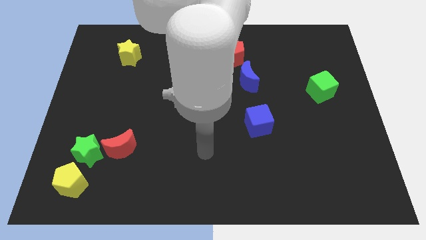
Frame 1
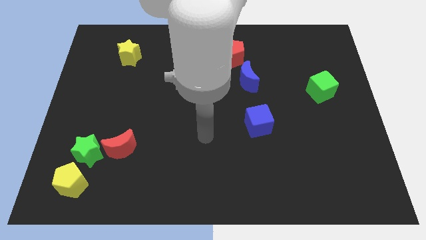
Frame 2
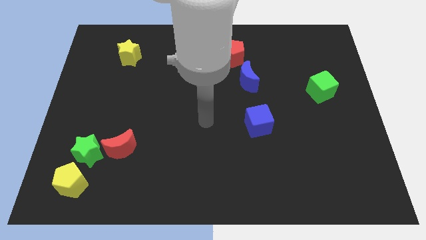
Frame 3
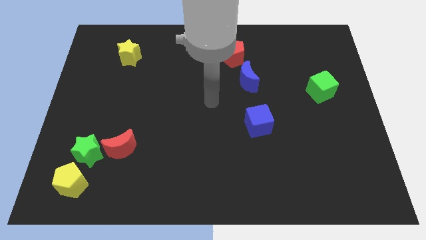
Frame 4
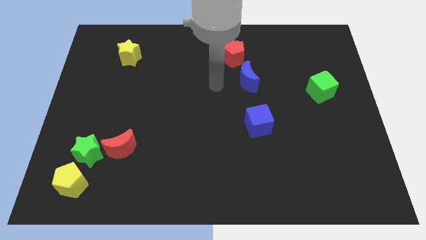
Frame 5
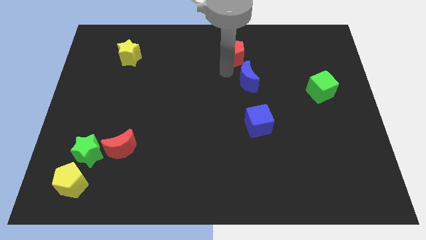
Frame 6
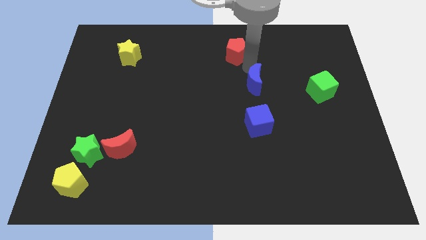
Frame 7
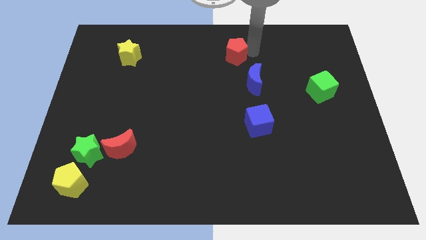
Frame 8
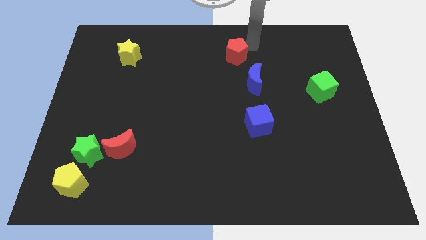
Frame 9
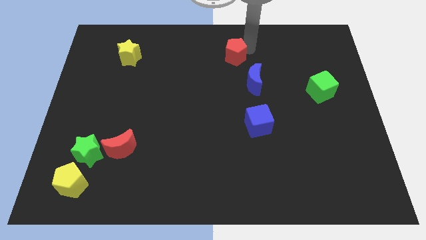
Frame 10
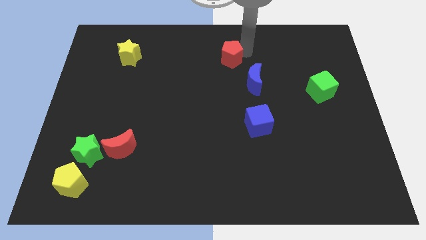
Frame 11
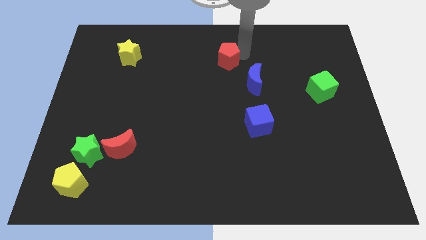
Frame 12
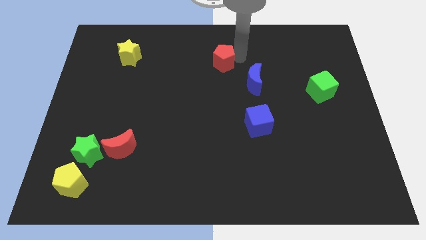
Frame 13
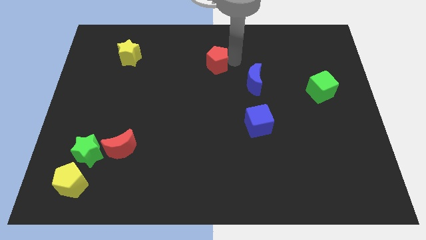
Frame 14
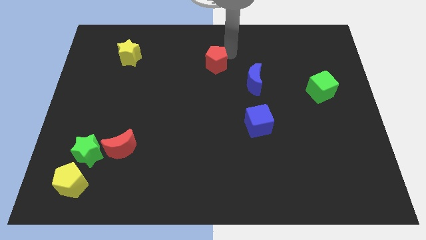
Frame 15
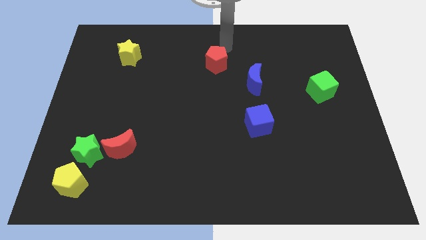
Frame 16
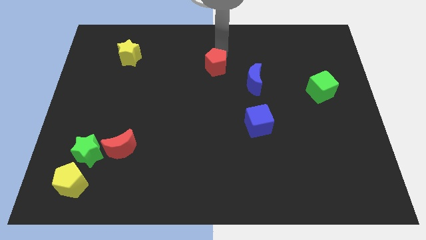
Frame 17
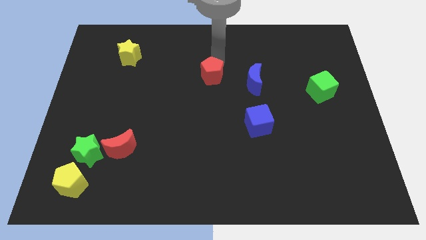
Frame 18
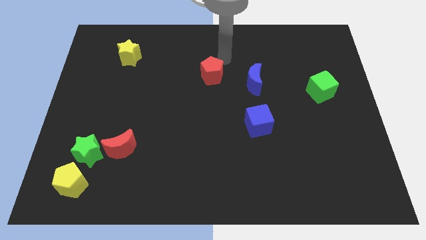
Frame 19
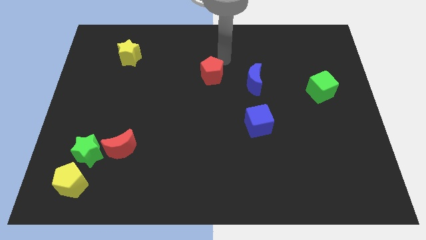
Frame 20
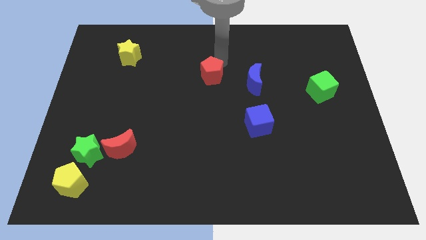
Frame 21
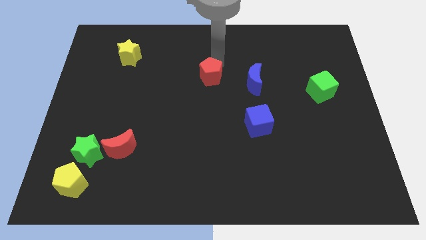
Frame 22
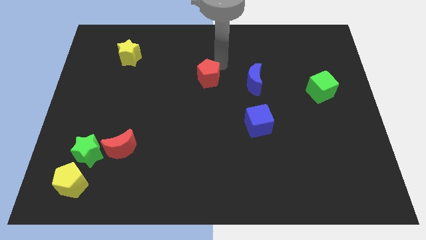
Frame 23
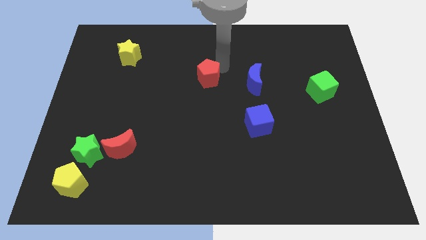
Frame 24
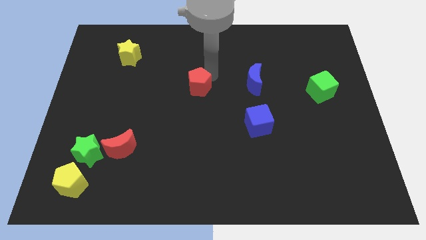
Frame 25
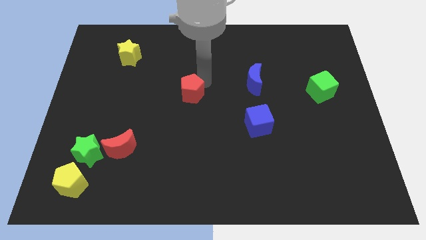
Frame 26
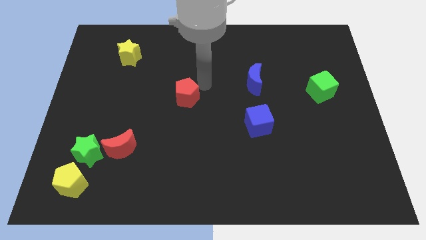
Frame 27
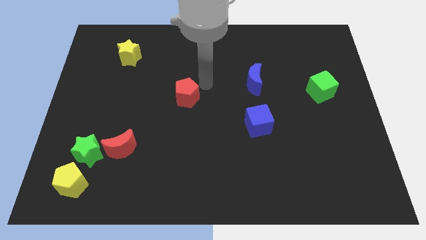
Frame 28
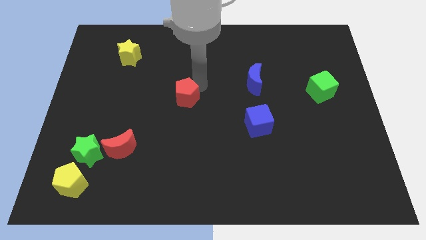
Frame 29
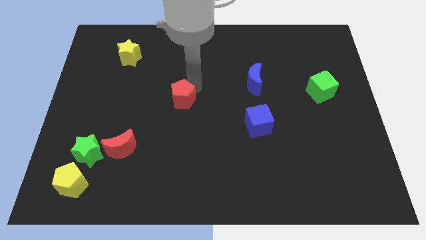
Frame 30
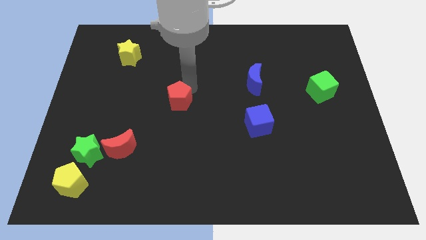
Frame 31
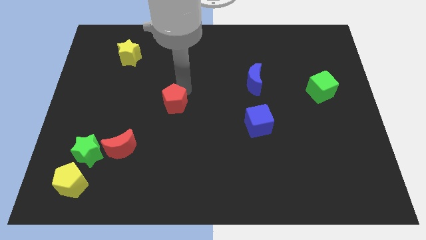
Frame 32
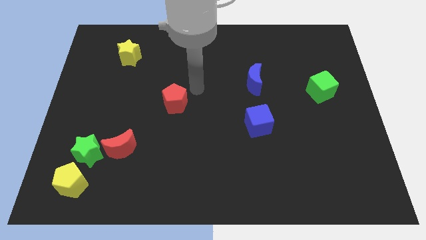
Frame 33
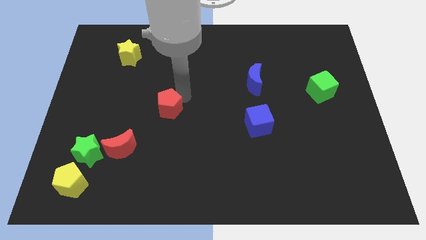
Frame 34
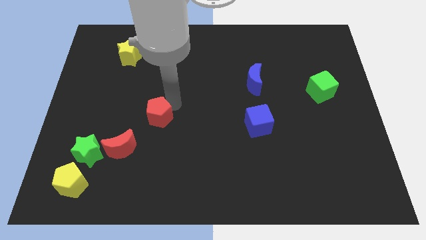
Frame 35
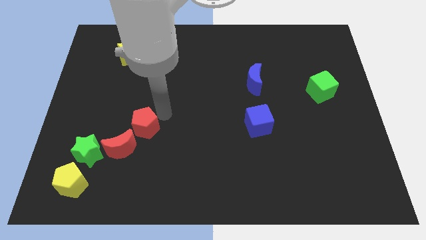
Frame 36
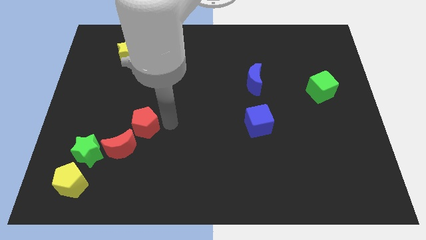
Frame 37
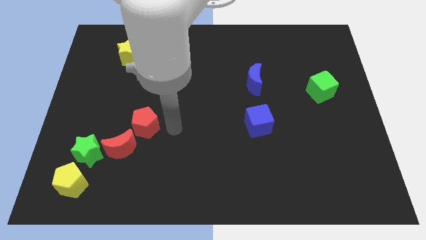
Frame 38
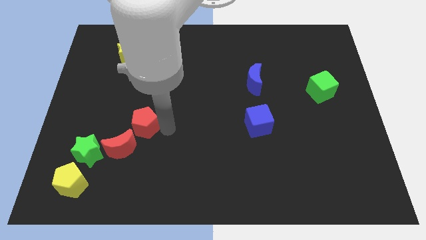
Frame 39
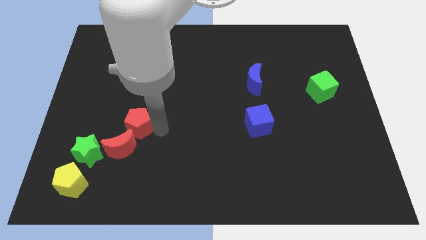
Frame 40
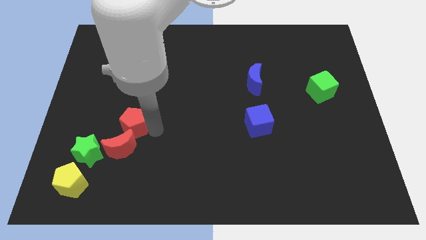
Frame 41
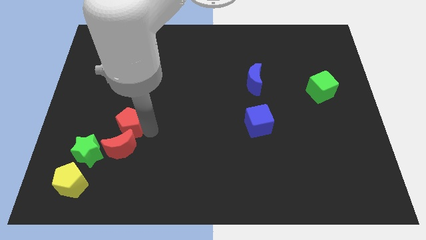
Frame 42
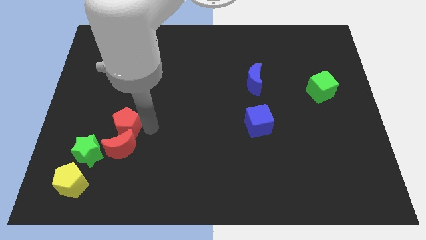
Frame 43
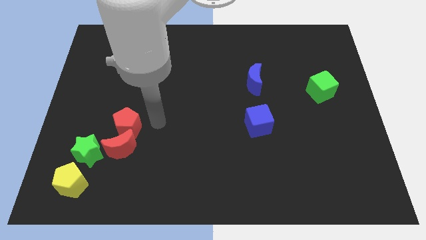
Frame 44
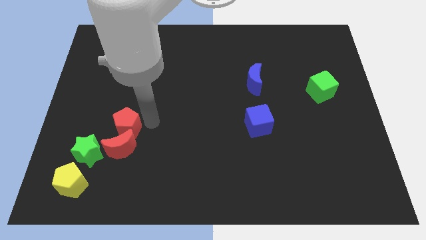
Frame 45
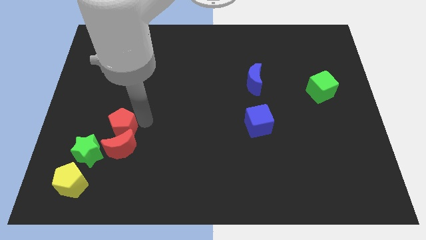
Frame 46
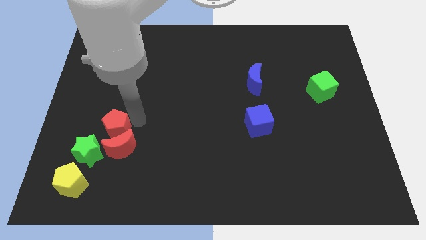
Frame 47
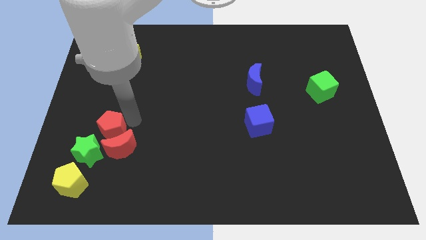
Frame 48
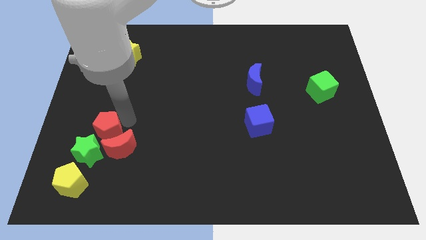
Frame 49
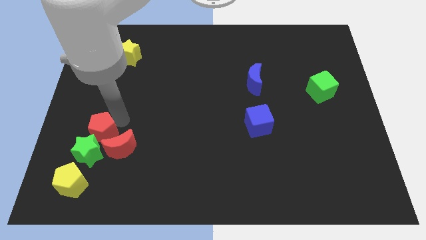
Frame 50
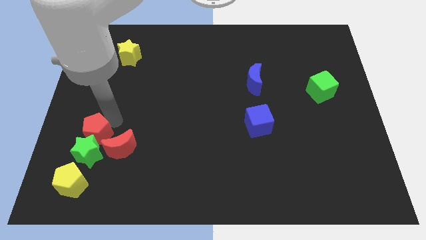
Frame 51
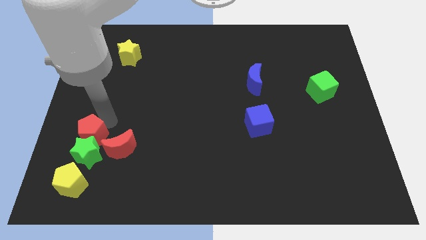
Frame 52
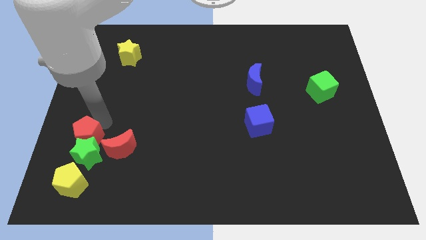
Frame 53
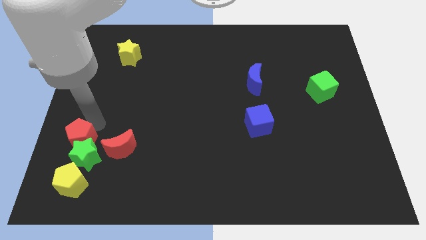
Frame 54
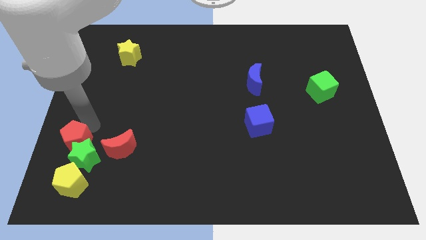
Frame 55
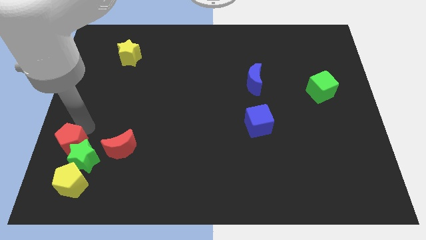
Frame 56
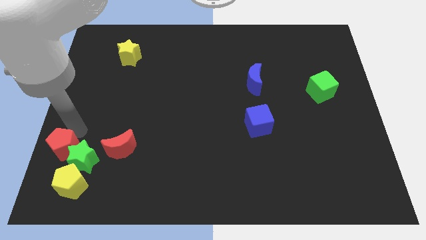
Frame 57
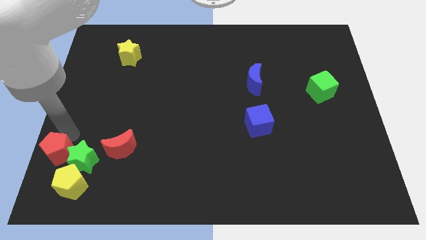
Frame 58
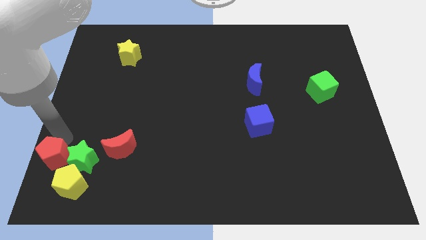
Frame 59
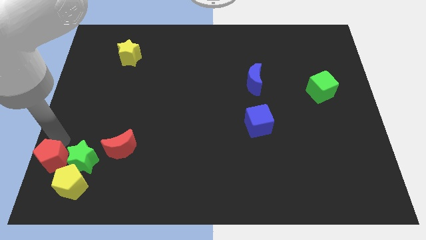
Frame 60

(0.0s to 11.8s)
move the red pentagon to the bottom left

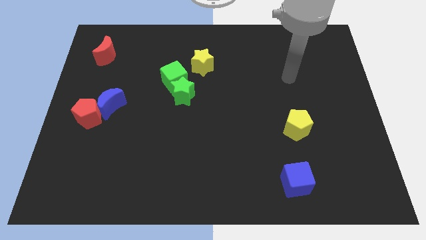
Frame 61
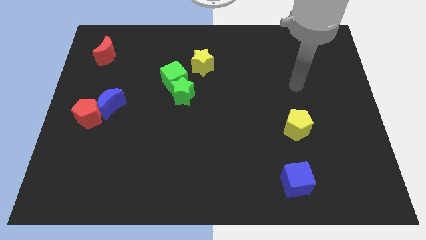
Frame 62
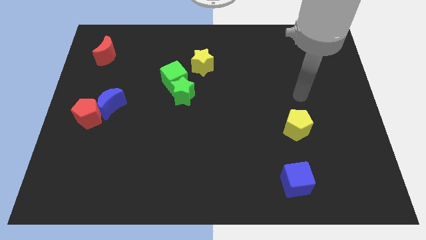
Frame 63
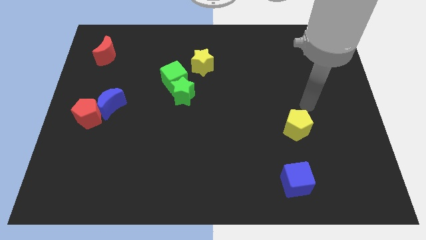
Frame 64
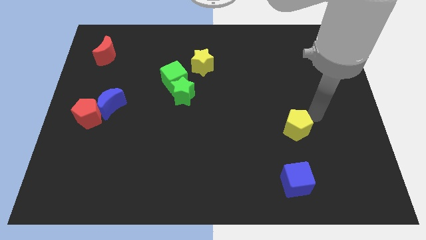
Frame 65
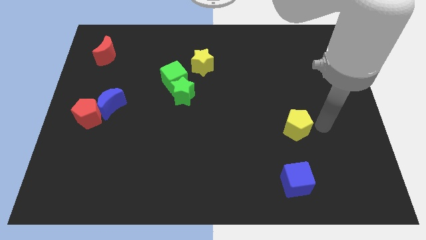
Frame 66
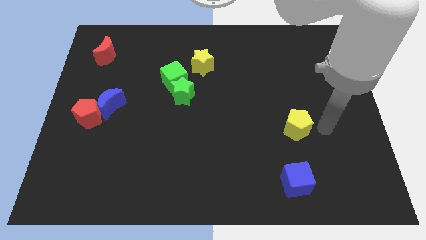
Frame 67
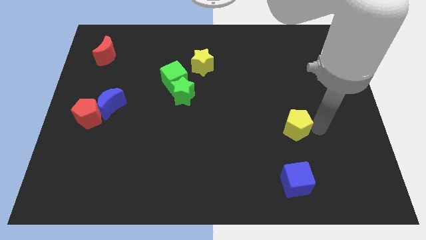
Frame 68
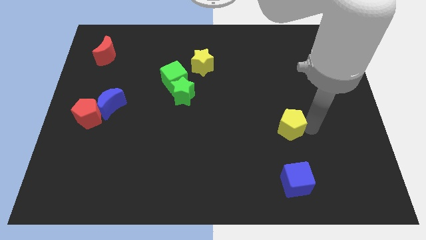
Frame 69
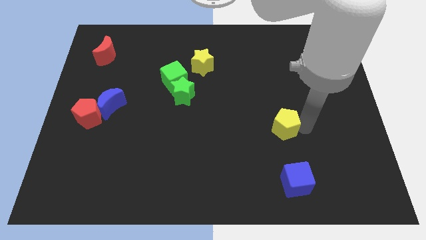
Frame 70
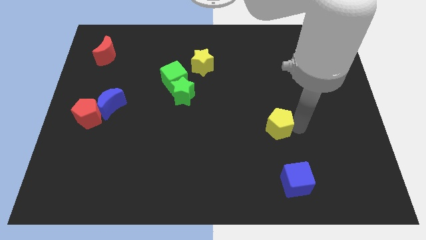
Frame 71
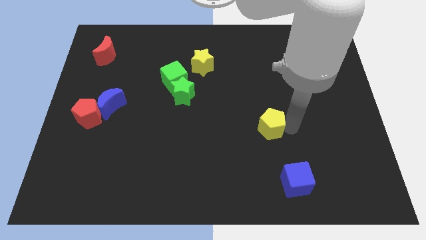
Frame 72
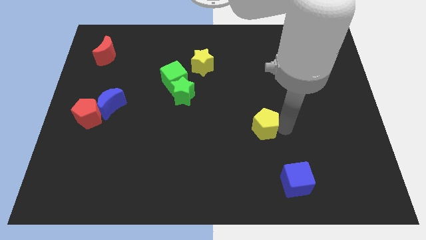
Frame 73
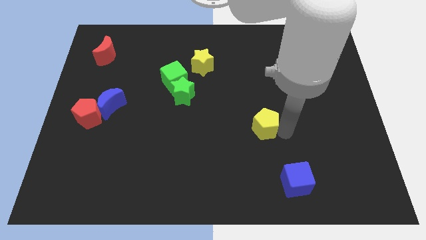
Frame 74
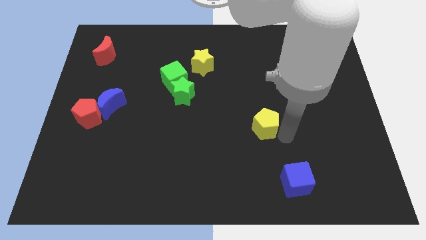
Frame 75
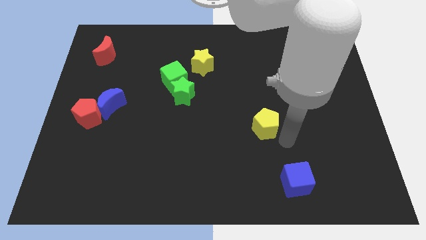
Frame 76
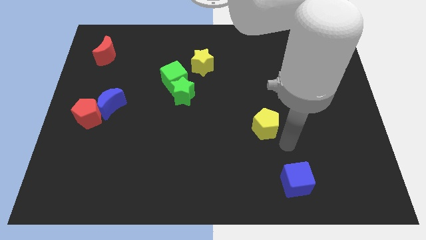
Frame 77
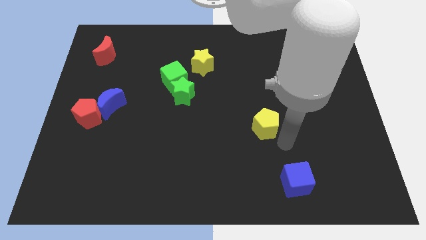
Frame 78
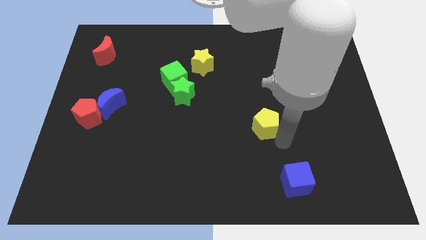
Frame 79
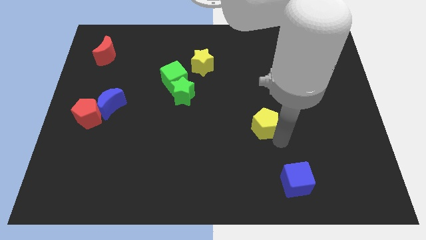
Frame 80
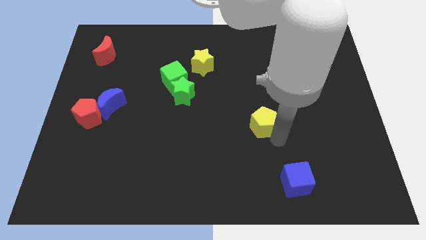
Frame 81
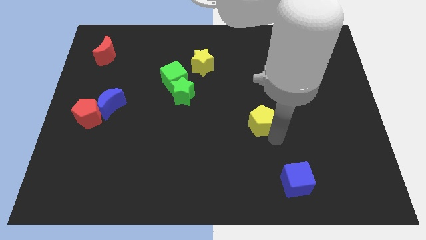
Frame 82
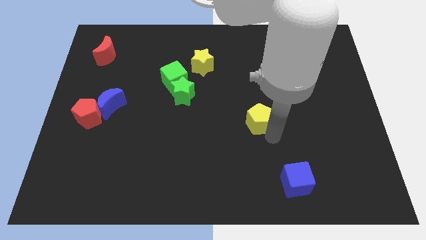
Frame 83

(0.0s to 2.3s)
put the yellow pentagon to the middle of the board

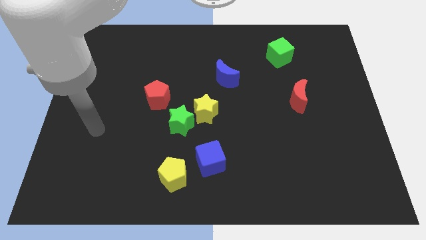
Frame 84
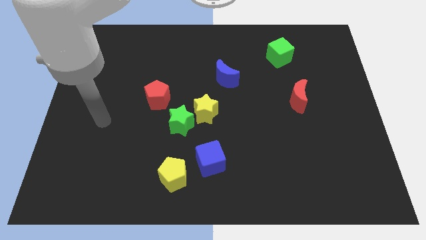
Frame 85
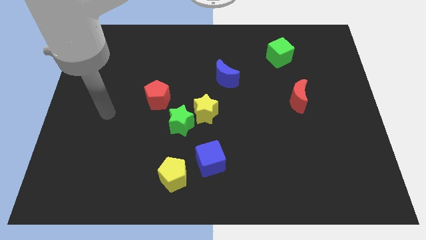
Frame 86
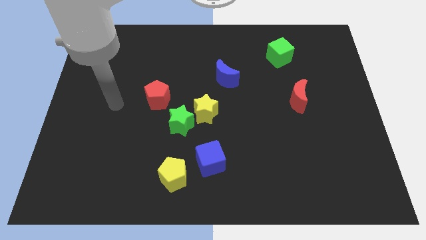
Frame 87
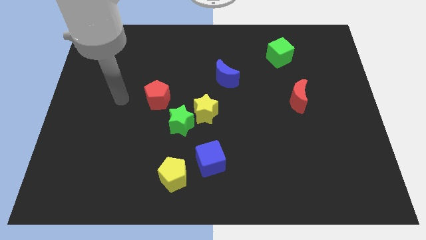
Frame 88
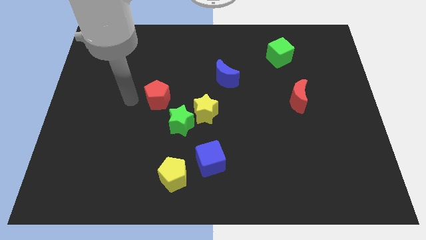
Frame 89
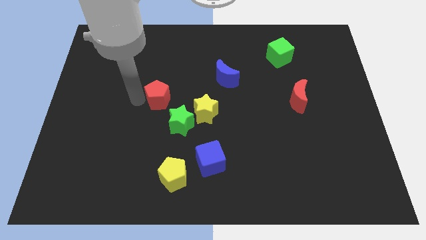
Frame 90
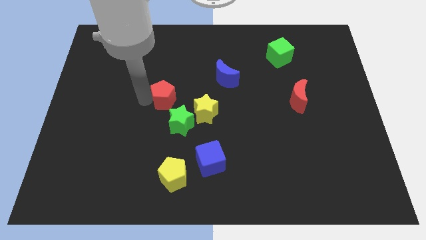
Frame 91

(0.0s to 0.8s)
slide the red pentagon to the middle
